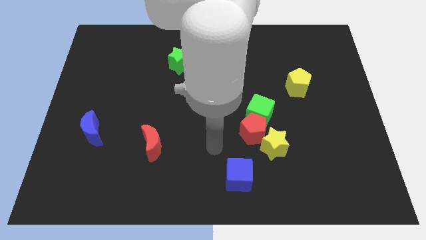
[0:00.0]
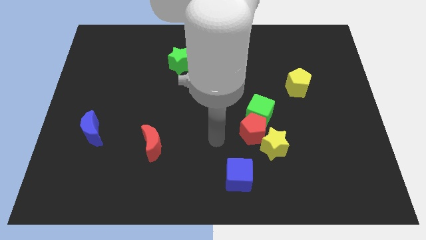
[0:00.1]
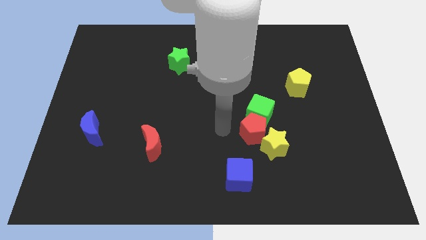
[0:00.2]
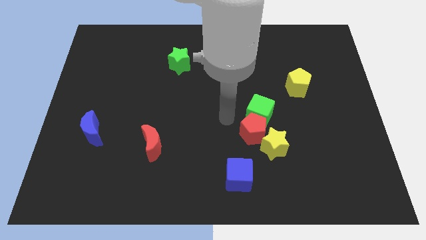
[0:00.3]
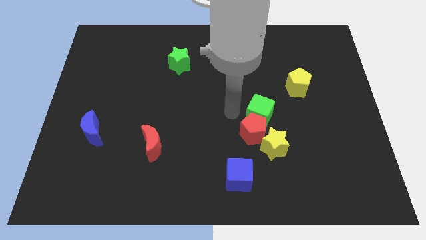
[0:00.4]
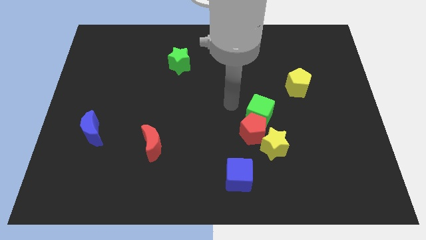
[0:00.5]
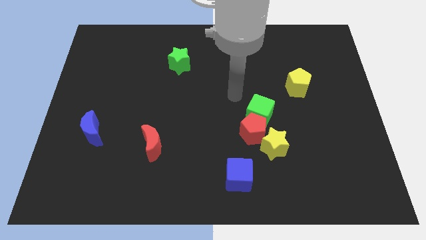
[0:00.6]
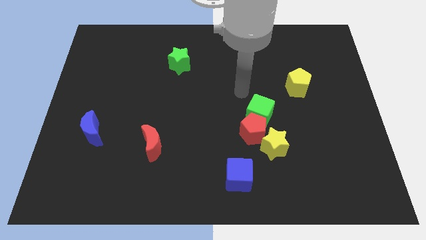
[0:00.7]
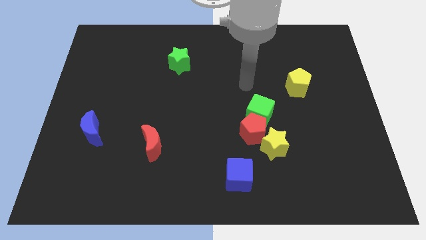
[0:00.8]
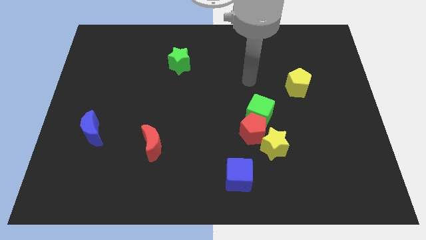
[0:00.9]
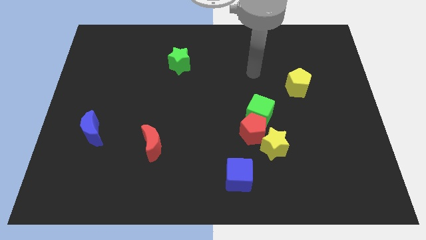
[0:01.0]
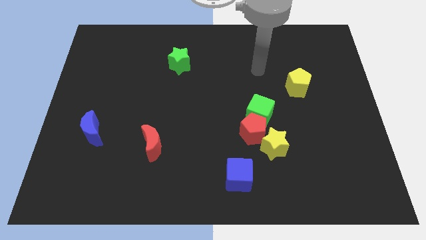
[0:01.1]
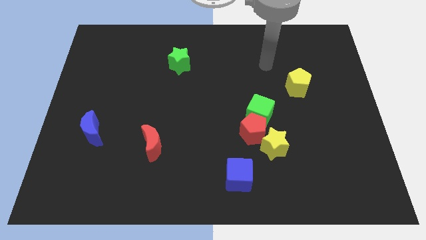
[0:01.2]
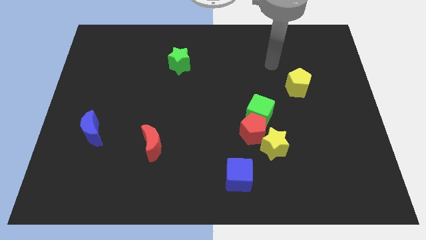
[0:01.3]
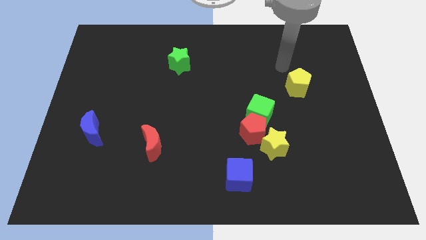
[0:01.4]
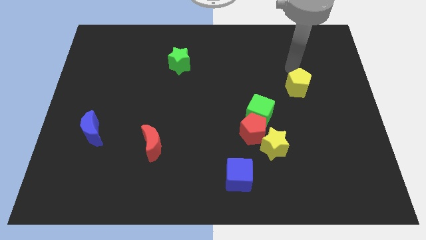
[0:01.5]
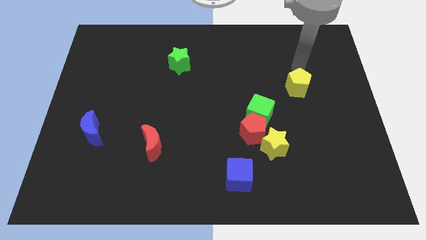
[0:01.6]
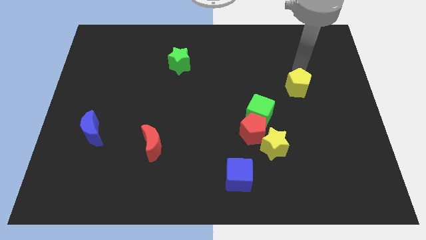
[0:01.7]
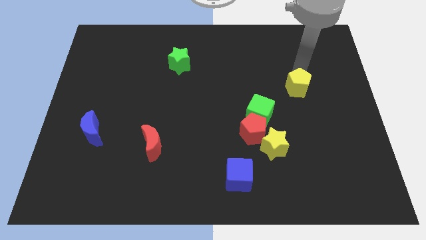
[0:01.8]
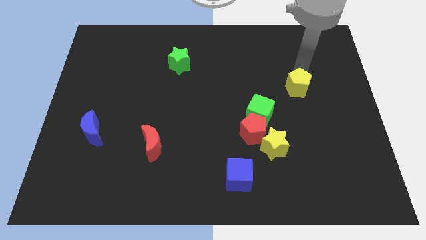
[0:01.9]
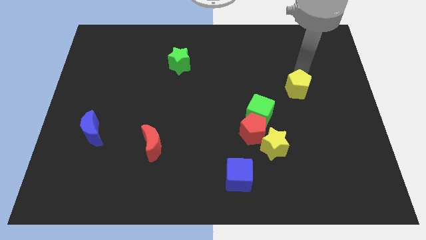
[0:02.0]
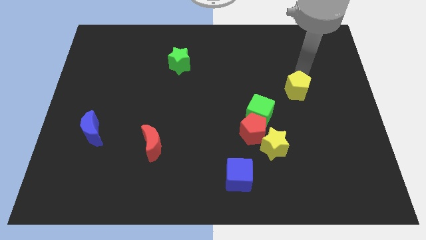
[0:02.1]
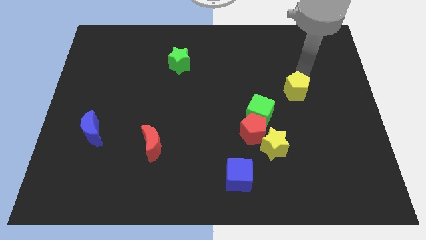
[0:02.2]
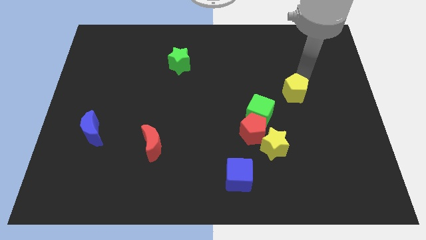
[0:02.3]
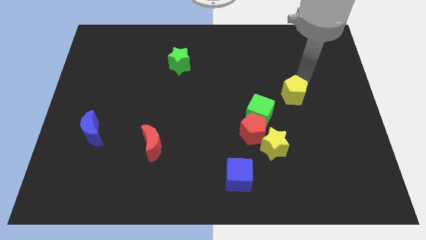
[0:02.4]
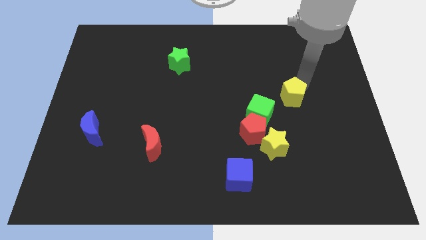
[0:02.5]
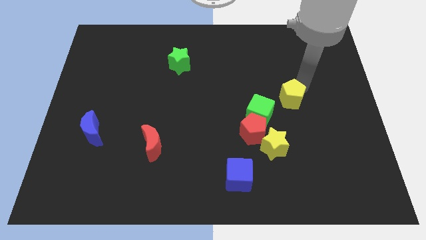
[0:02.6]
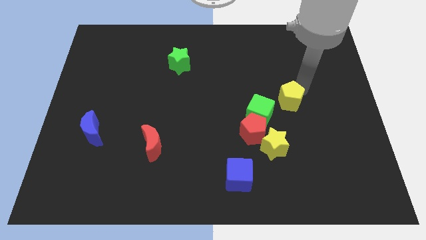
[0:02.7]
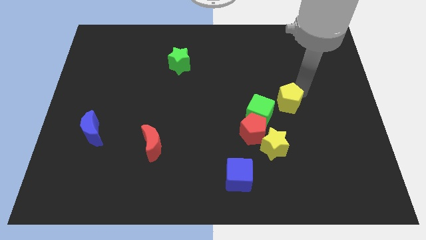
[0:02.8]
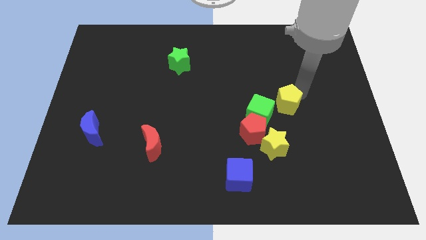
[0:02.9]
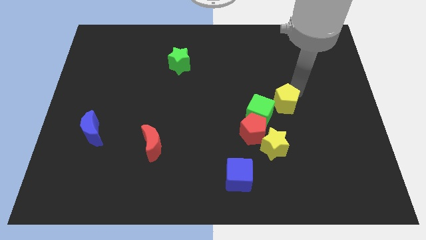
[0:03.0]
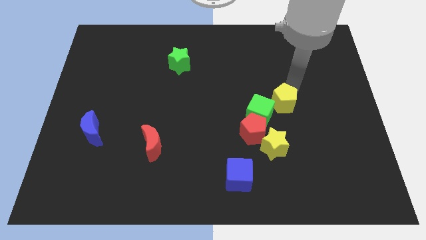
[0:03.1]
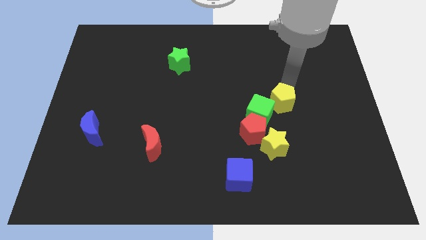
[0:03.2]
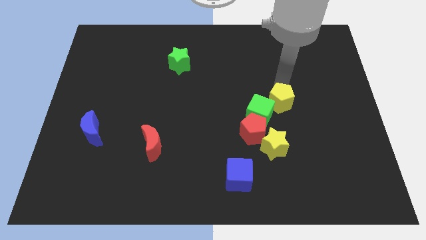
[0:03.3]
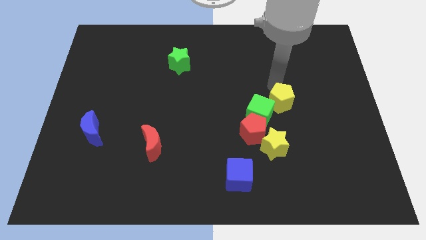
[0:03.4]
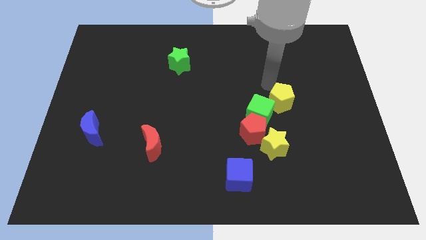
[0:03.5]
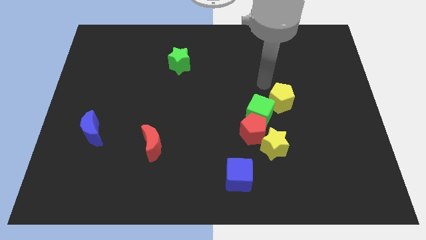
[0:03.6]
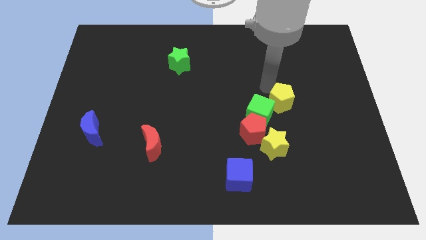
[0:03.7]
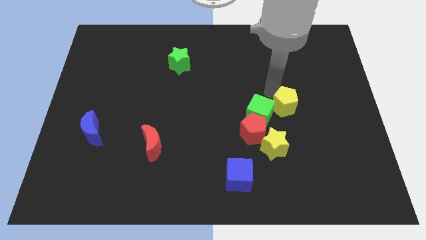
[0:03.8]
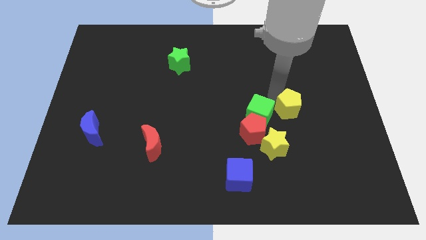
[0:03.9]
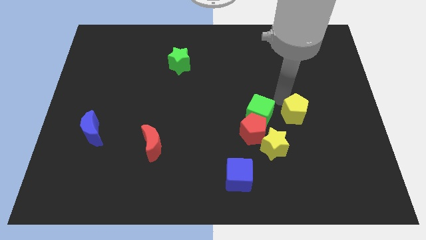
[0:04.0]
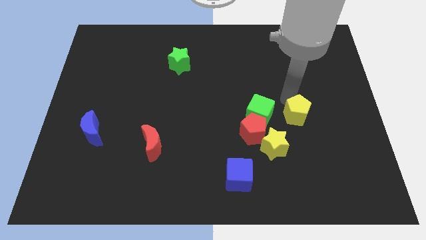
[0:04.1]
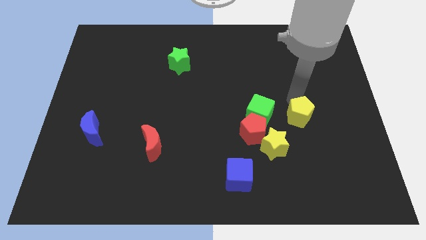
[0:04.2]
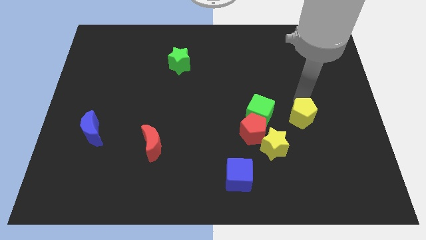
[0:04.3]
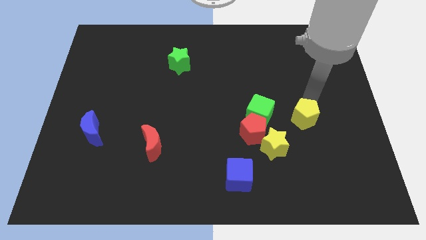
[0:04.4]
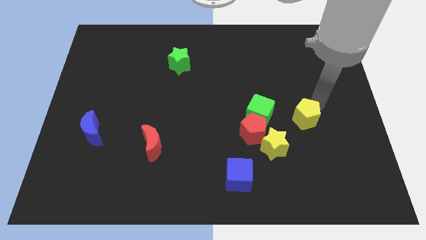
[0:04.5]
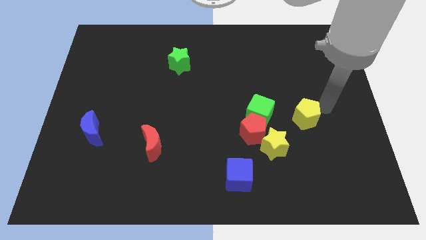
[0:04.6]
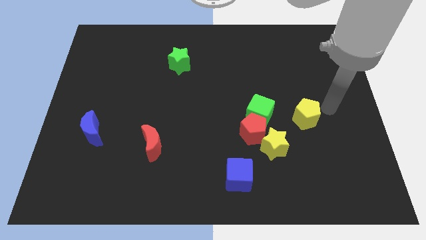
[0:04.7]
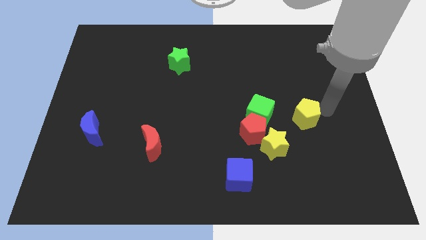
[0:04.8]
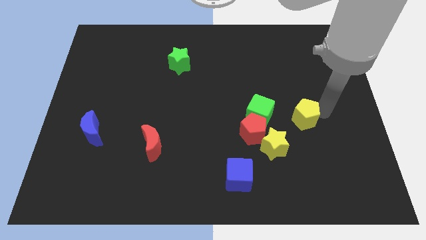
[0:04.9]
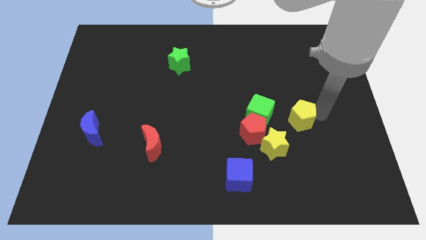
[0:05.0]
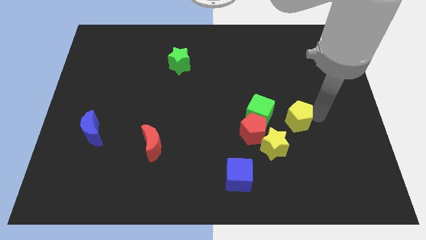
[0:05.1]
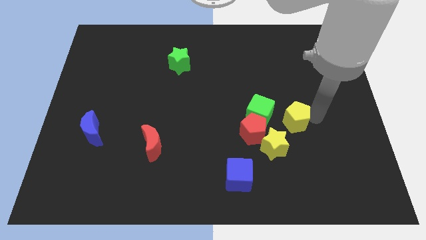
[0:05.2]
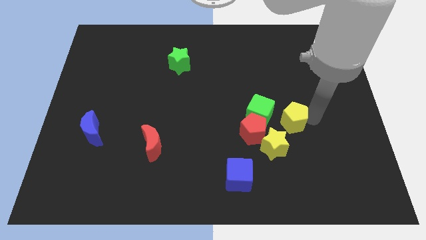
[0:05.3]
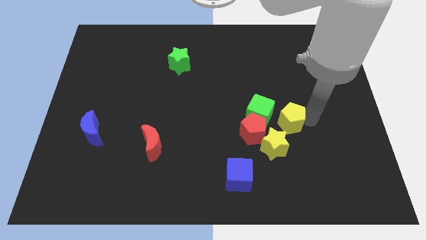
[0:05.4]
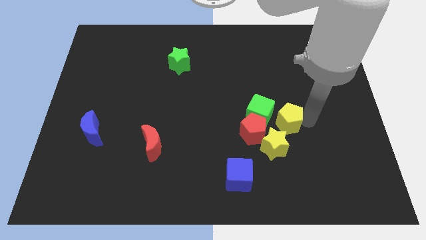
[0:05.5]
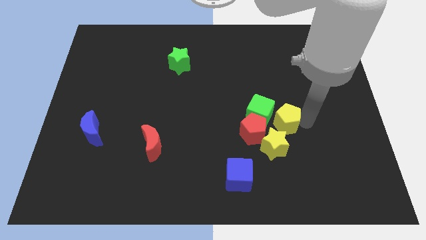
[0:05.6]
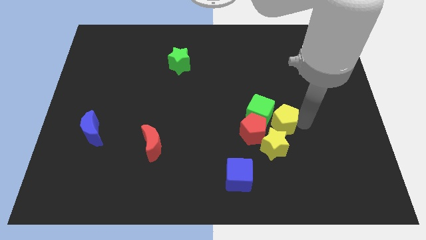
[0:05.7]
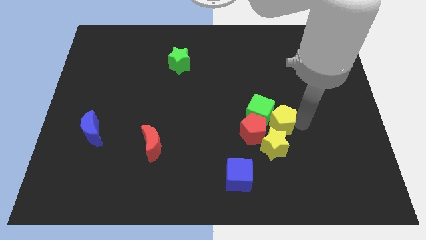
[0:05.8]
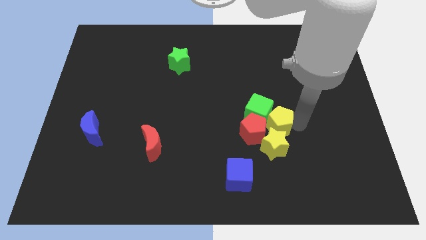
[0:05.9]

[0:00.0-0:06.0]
put the yellow pentagon next to the red pentagon

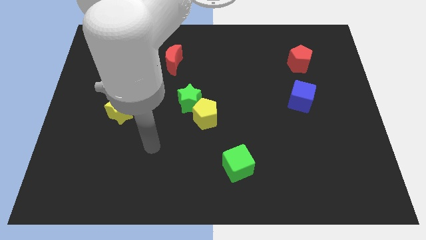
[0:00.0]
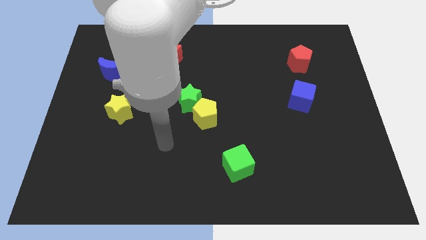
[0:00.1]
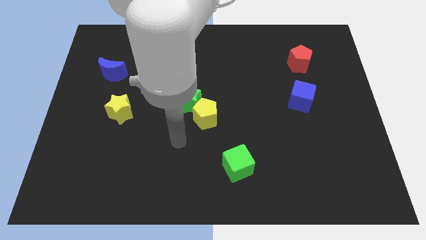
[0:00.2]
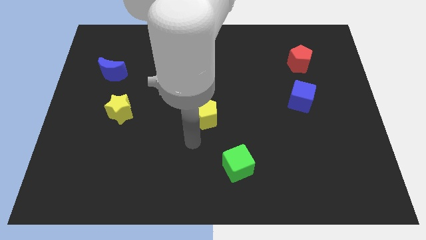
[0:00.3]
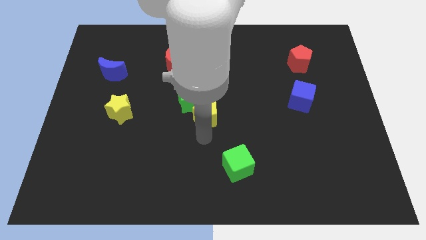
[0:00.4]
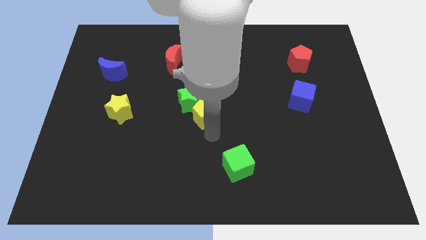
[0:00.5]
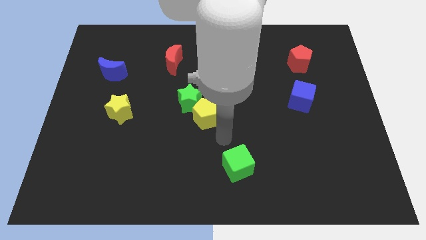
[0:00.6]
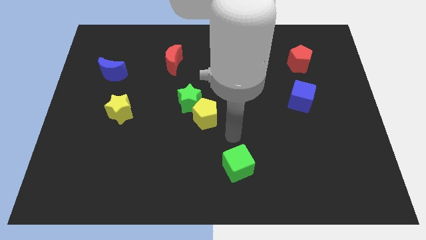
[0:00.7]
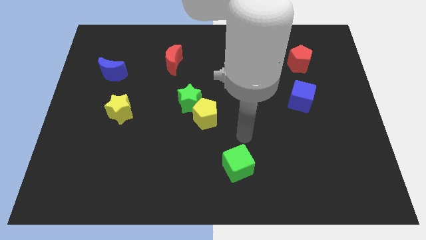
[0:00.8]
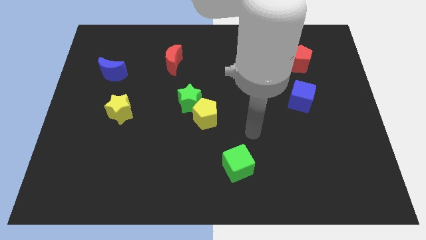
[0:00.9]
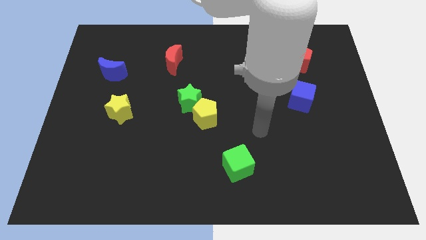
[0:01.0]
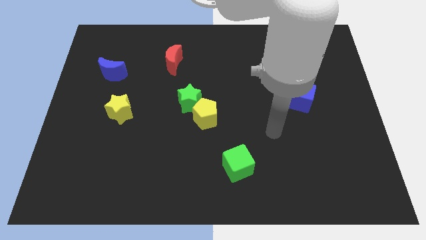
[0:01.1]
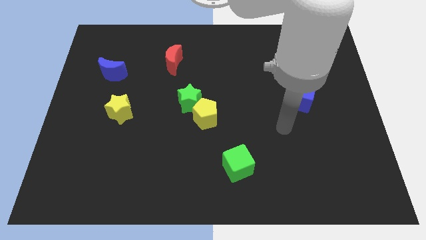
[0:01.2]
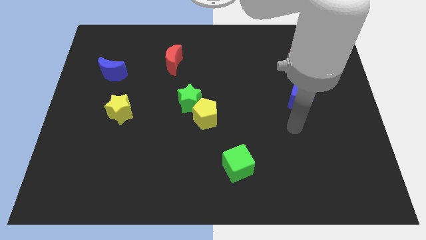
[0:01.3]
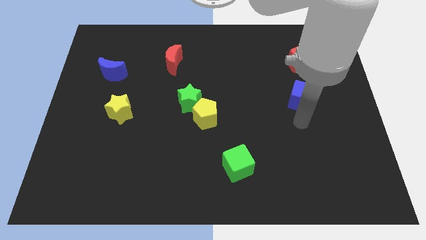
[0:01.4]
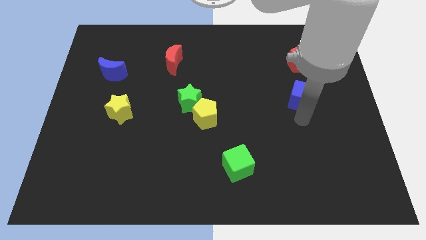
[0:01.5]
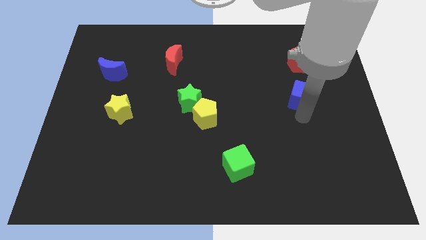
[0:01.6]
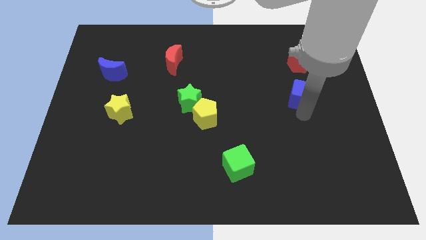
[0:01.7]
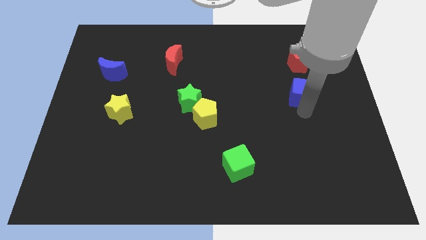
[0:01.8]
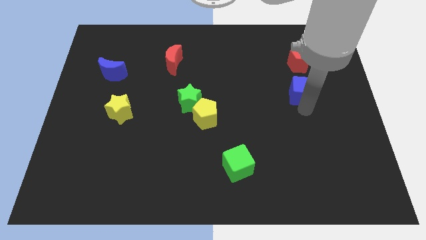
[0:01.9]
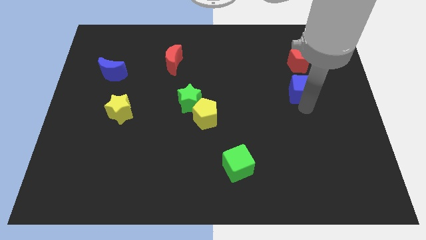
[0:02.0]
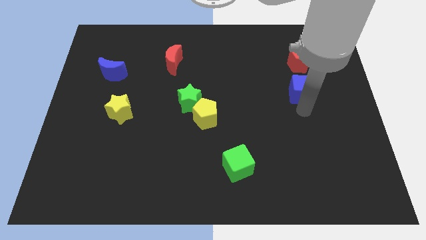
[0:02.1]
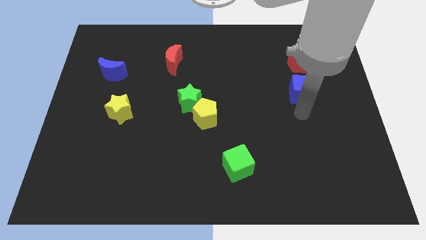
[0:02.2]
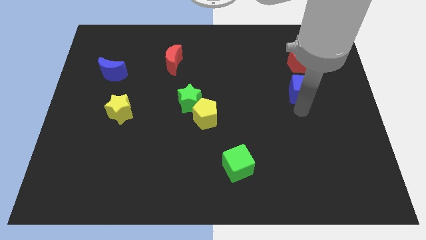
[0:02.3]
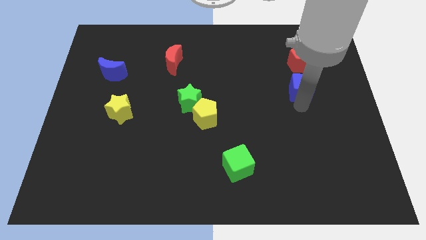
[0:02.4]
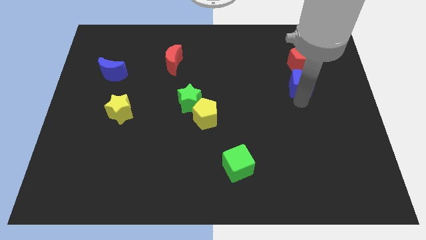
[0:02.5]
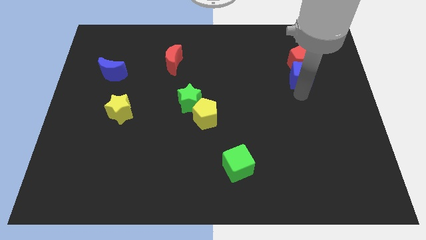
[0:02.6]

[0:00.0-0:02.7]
put the blue cube to the red pentagon
